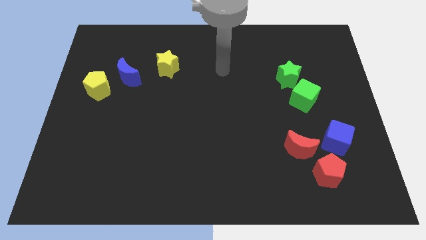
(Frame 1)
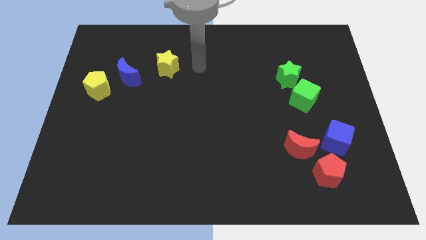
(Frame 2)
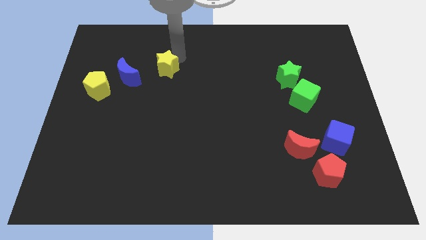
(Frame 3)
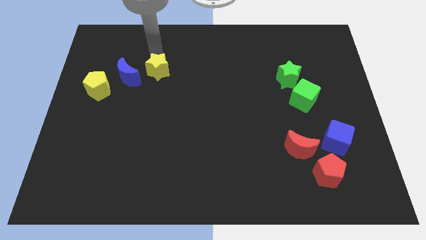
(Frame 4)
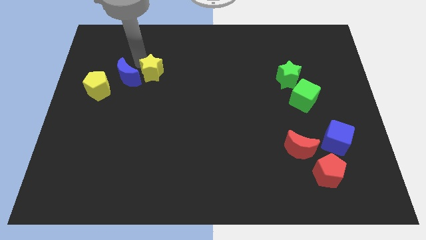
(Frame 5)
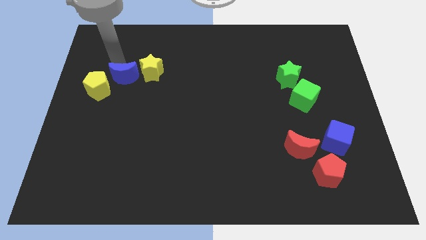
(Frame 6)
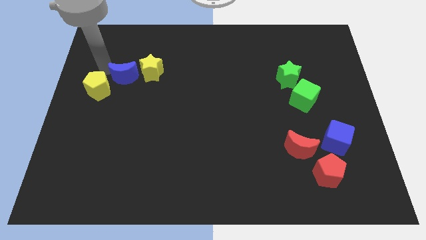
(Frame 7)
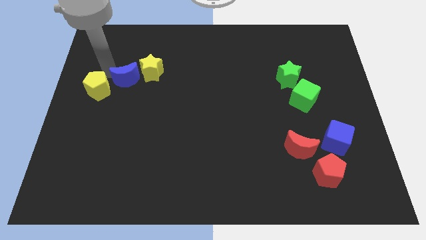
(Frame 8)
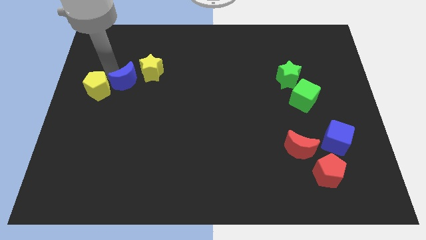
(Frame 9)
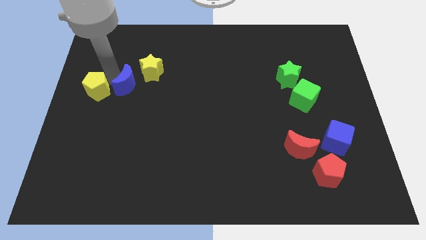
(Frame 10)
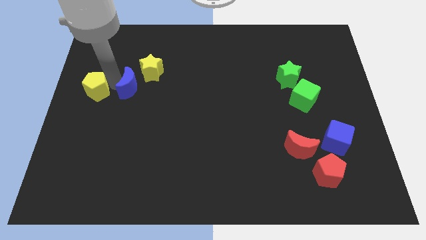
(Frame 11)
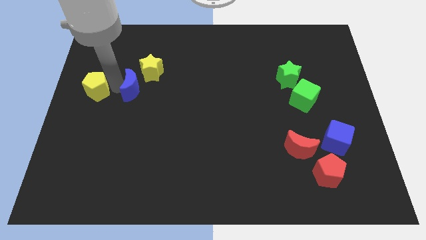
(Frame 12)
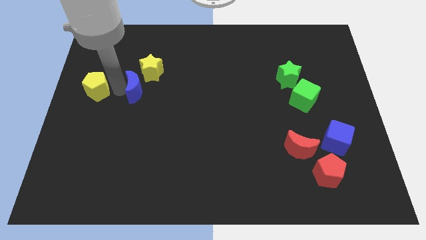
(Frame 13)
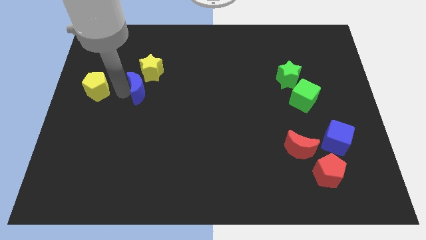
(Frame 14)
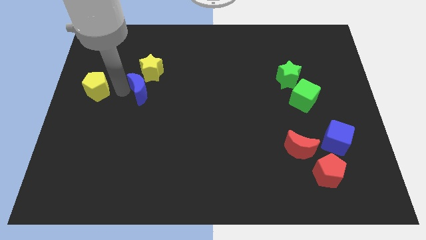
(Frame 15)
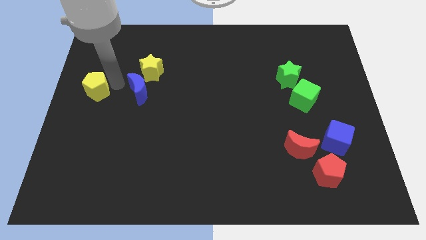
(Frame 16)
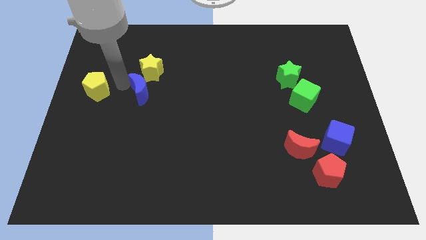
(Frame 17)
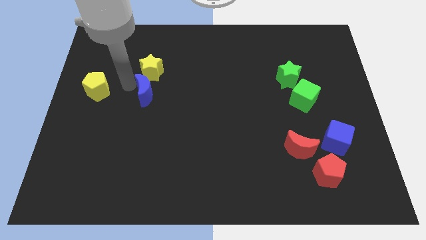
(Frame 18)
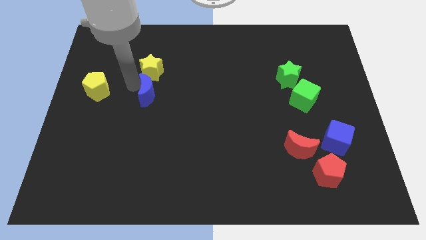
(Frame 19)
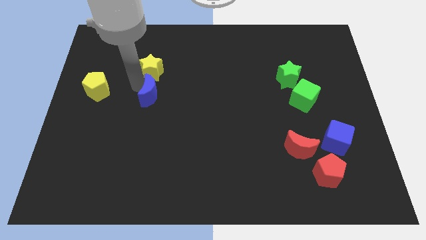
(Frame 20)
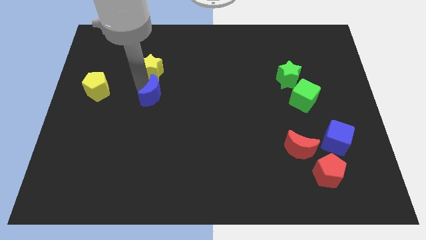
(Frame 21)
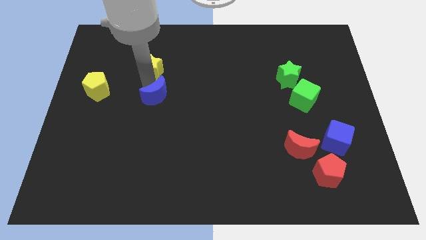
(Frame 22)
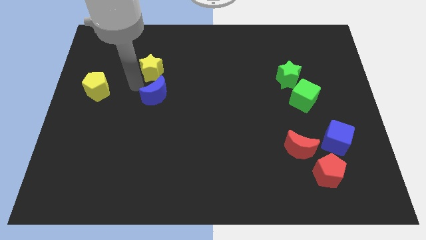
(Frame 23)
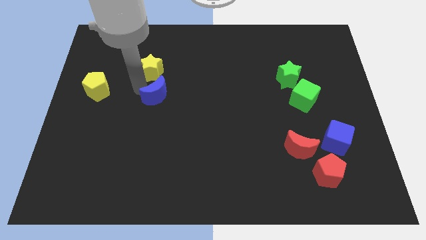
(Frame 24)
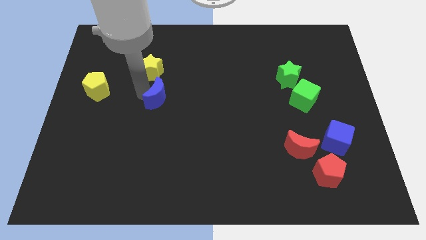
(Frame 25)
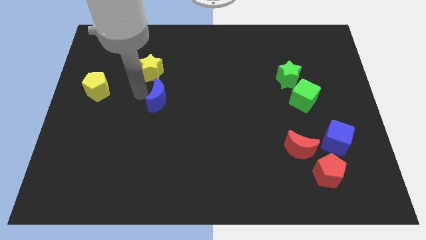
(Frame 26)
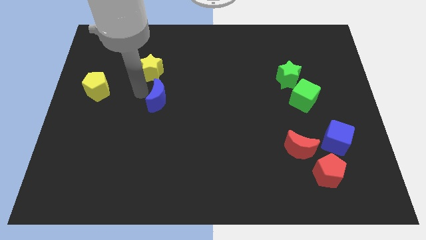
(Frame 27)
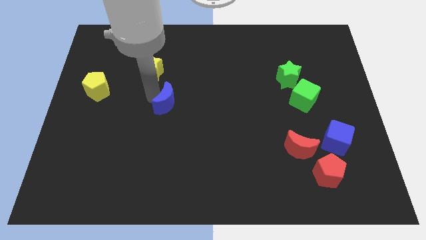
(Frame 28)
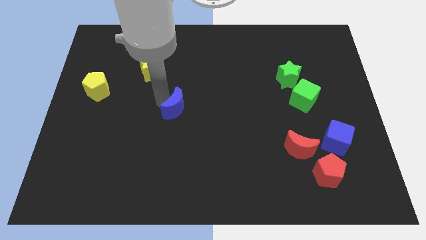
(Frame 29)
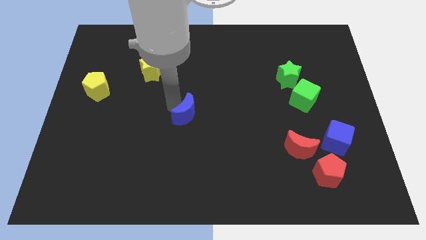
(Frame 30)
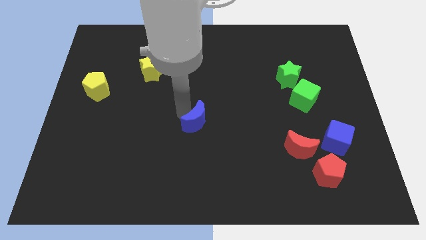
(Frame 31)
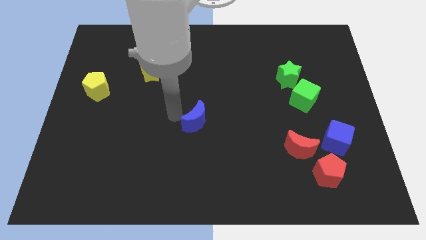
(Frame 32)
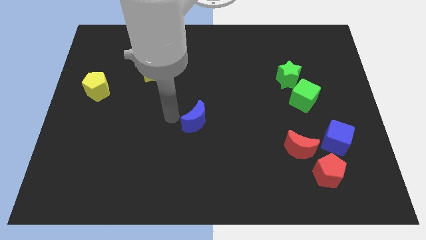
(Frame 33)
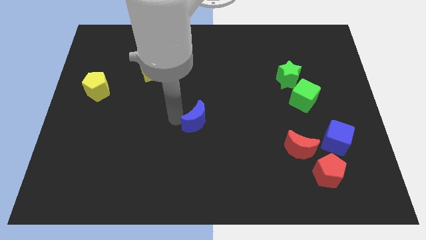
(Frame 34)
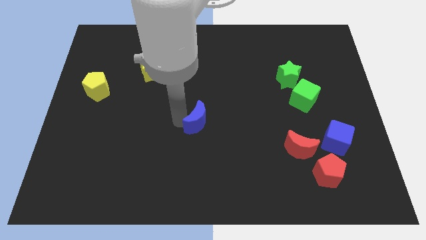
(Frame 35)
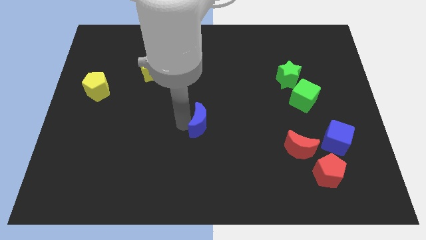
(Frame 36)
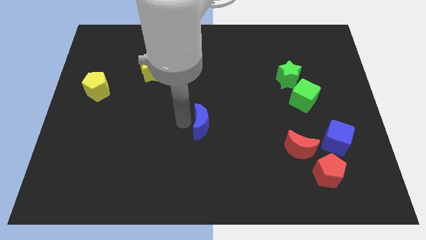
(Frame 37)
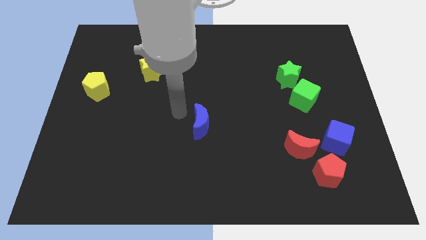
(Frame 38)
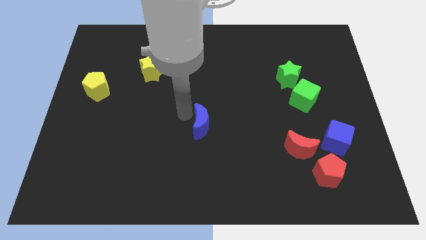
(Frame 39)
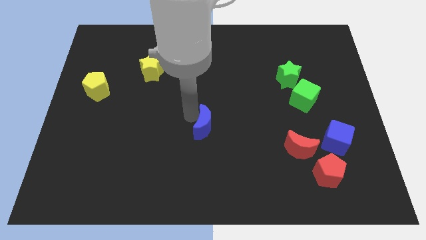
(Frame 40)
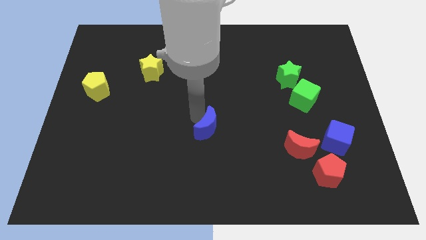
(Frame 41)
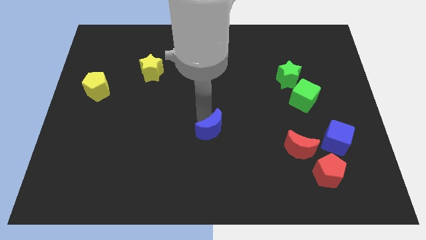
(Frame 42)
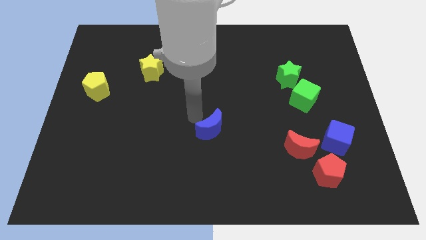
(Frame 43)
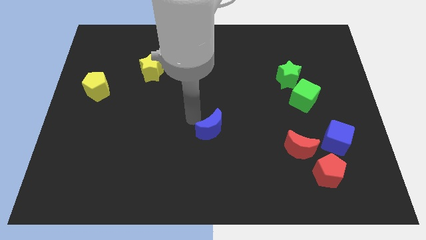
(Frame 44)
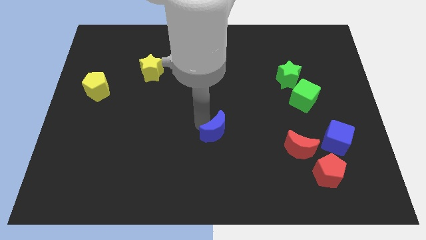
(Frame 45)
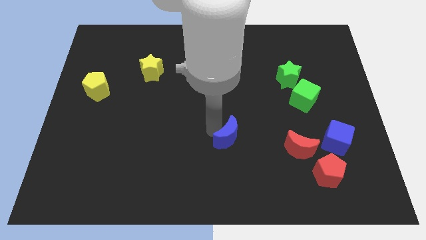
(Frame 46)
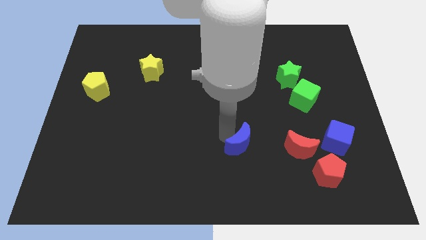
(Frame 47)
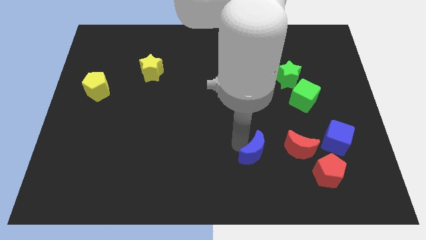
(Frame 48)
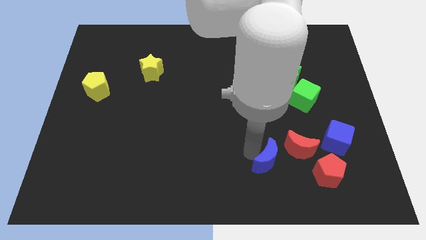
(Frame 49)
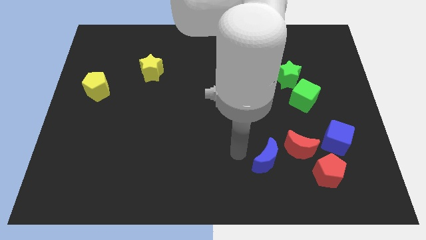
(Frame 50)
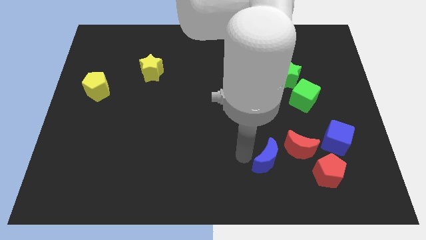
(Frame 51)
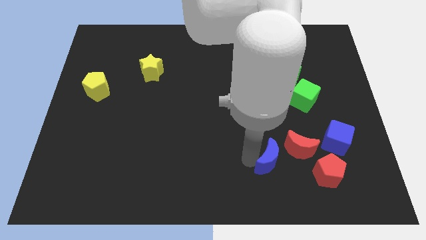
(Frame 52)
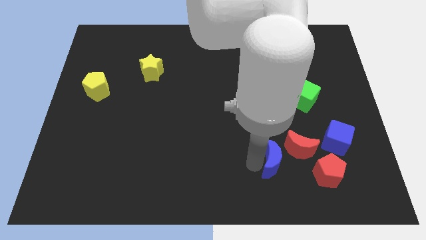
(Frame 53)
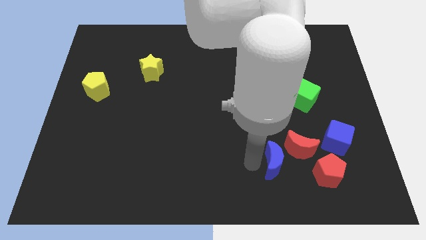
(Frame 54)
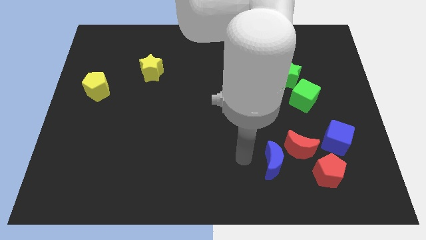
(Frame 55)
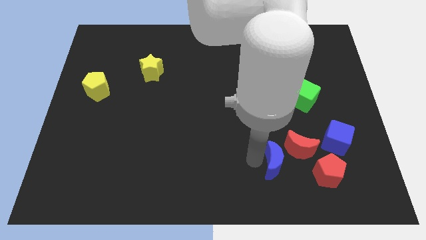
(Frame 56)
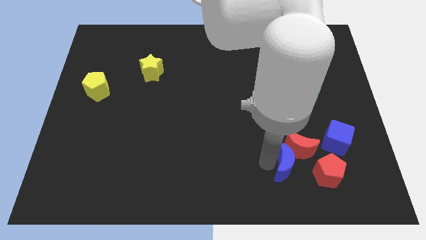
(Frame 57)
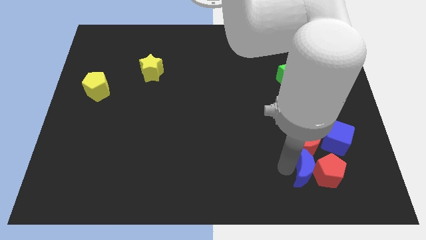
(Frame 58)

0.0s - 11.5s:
push the blue moon next to the red pentagon

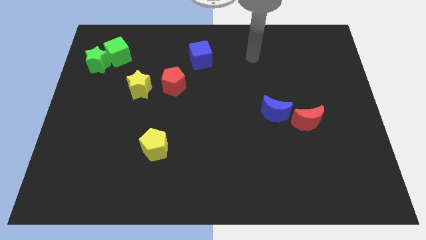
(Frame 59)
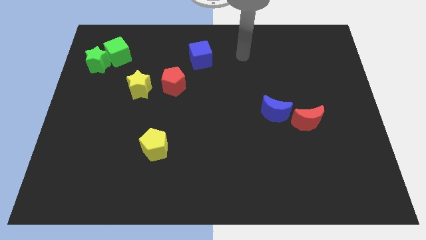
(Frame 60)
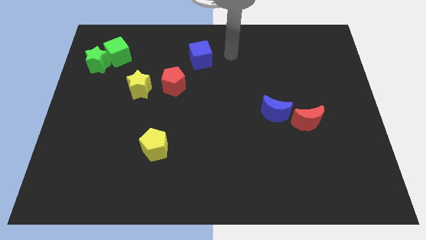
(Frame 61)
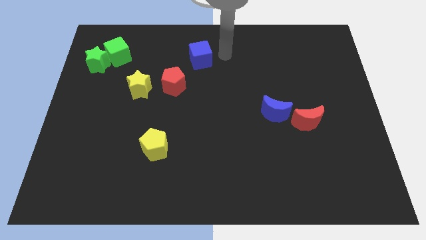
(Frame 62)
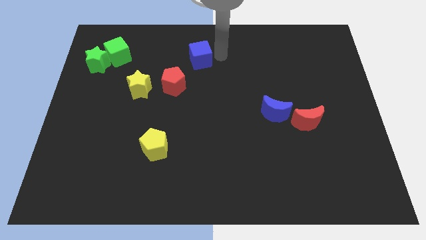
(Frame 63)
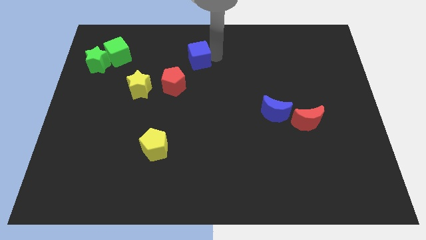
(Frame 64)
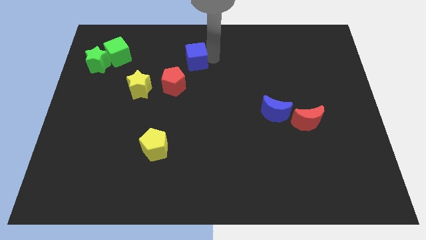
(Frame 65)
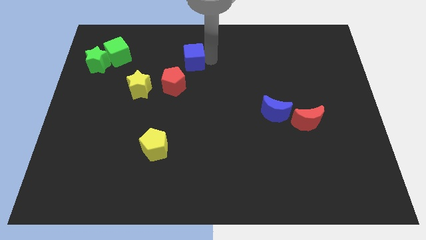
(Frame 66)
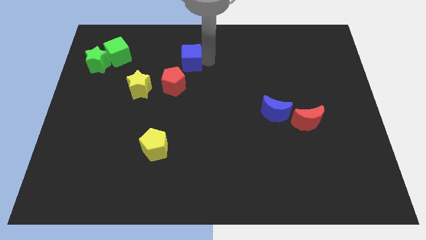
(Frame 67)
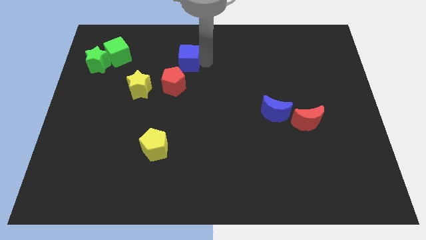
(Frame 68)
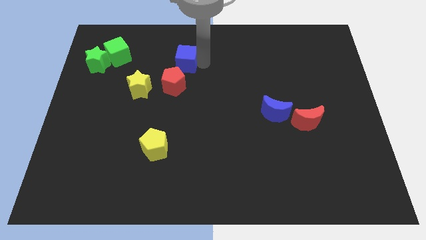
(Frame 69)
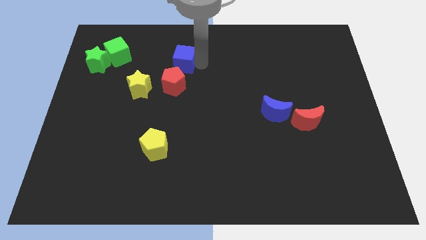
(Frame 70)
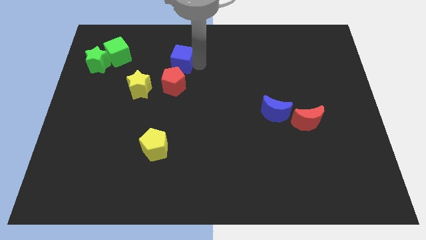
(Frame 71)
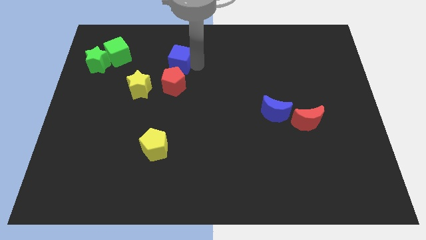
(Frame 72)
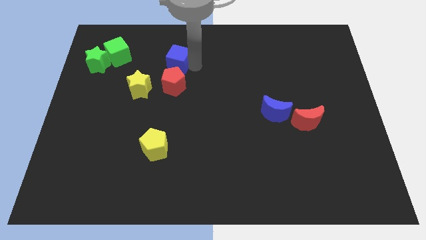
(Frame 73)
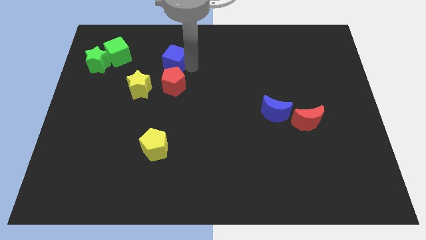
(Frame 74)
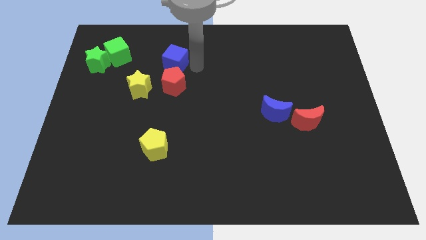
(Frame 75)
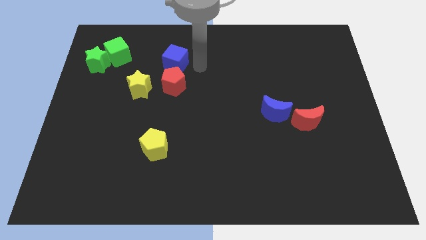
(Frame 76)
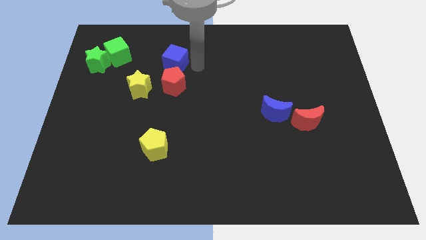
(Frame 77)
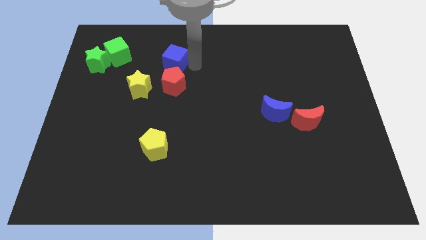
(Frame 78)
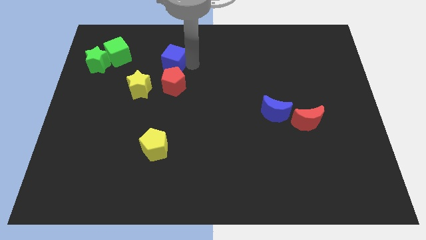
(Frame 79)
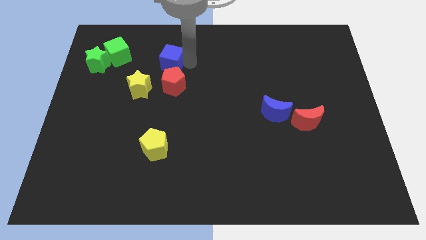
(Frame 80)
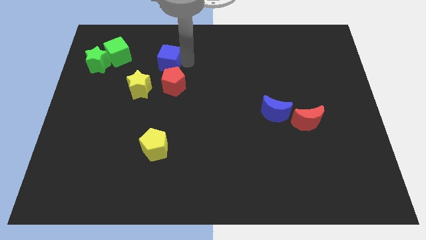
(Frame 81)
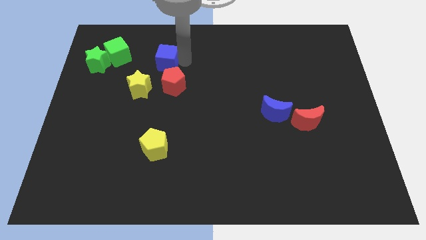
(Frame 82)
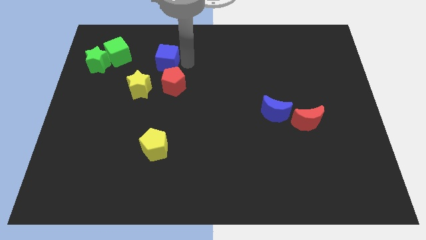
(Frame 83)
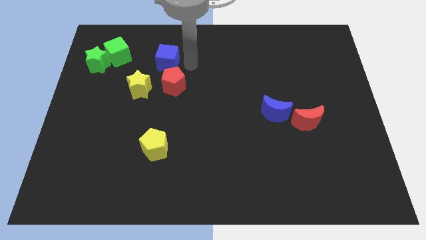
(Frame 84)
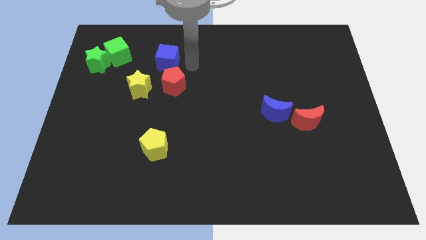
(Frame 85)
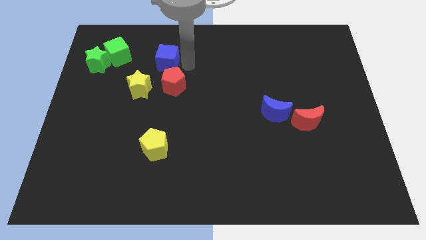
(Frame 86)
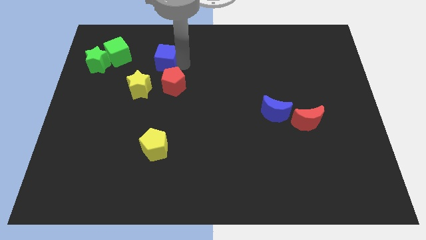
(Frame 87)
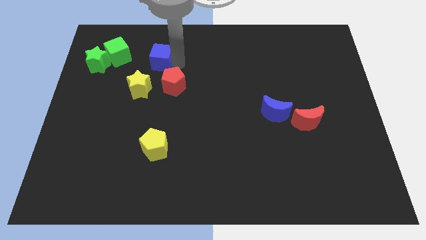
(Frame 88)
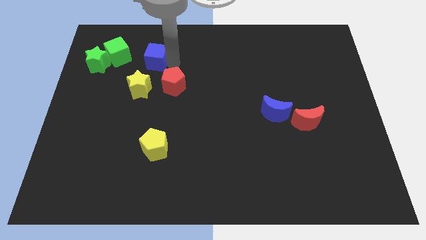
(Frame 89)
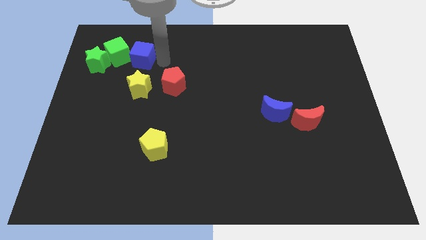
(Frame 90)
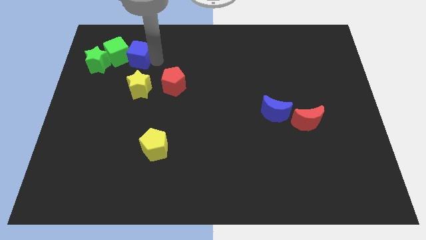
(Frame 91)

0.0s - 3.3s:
move the blue cube towards the green cube
